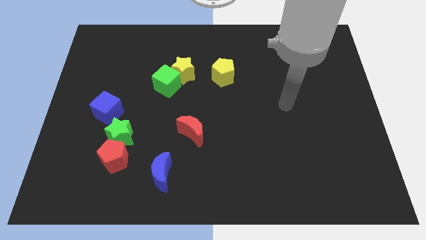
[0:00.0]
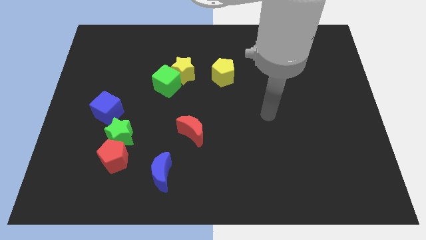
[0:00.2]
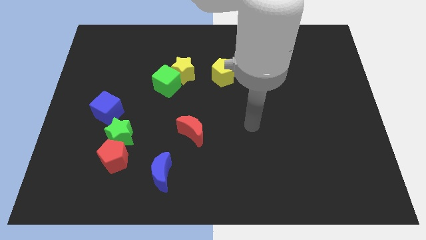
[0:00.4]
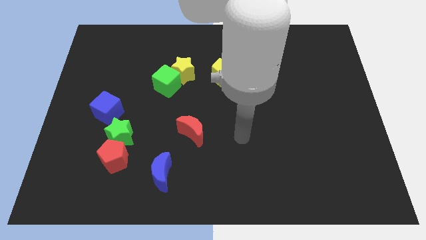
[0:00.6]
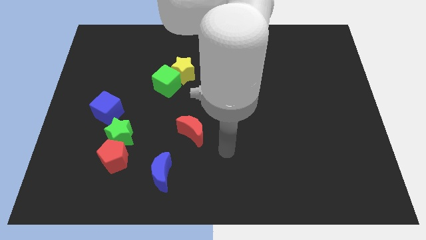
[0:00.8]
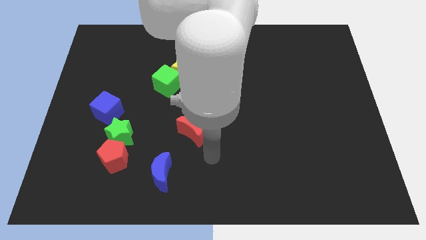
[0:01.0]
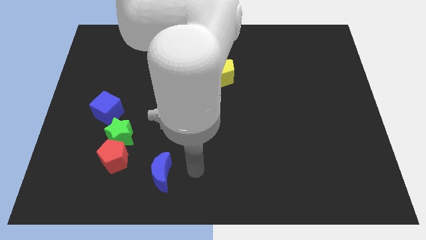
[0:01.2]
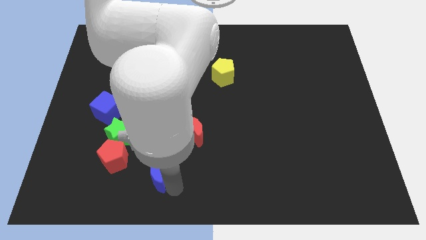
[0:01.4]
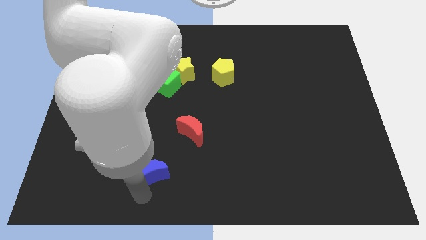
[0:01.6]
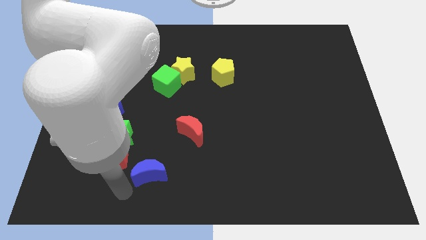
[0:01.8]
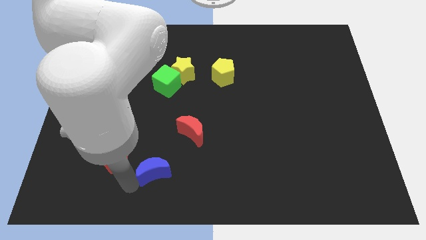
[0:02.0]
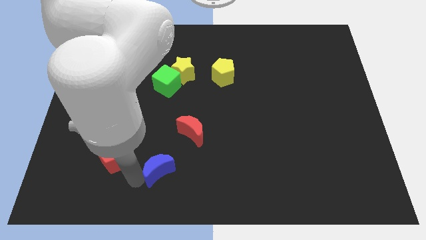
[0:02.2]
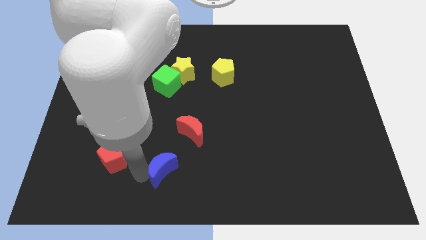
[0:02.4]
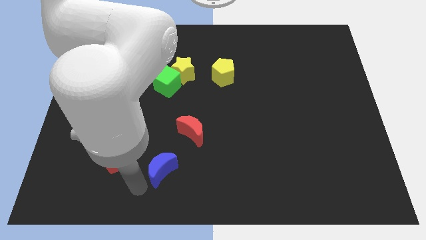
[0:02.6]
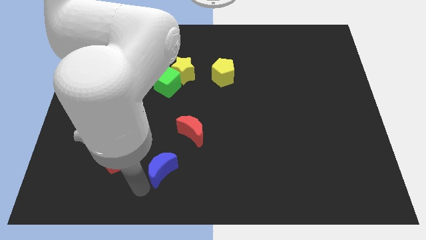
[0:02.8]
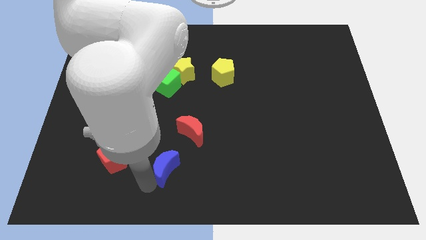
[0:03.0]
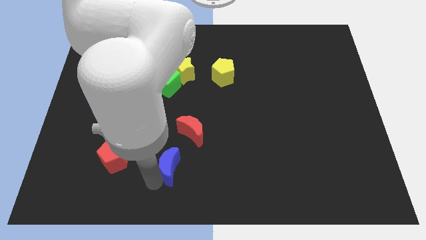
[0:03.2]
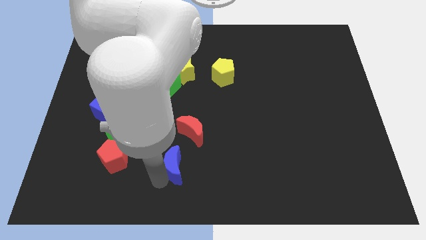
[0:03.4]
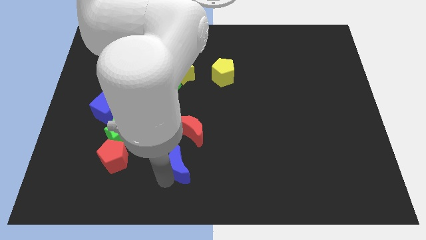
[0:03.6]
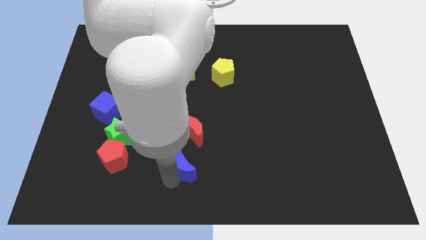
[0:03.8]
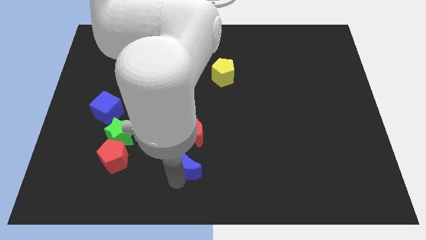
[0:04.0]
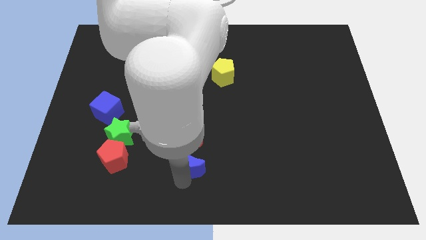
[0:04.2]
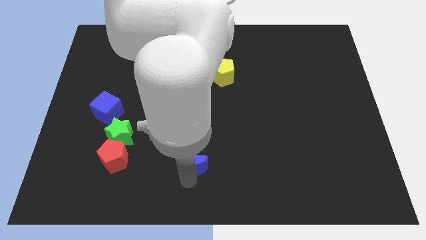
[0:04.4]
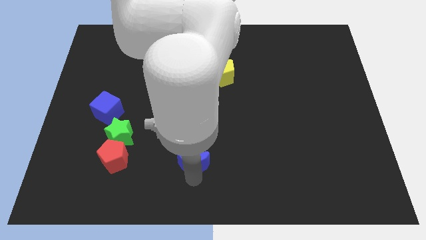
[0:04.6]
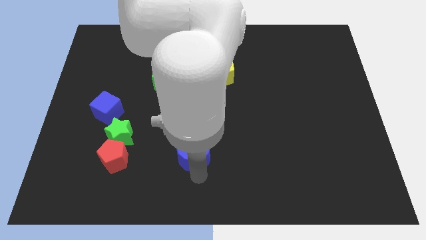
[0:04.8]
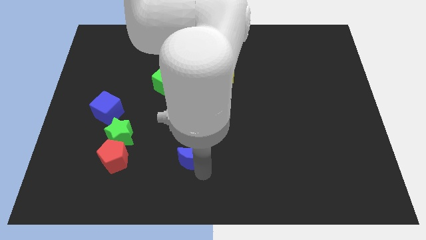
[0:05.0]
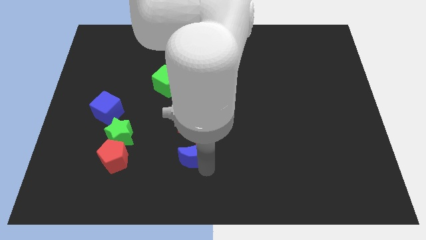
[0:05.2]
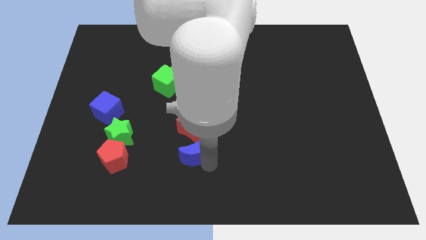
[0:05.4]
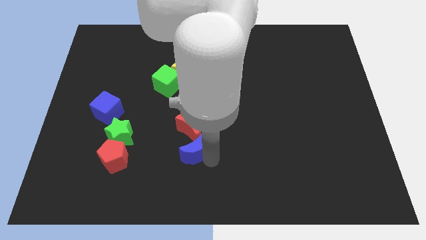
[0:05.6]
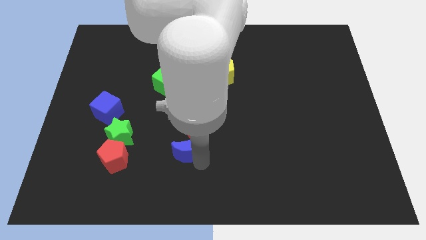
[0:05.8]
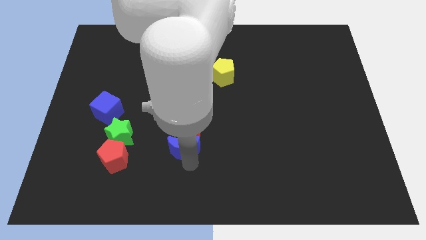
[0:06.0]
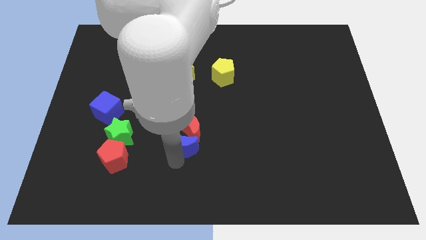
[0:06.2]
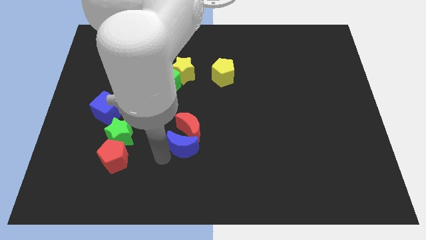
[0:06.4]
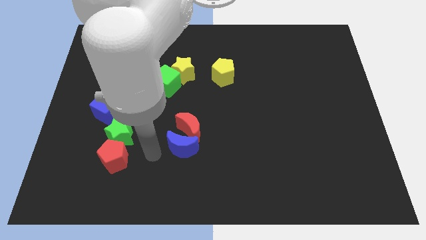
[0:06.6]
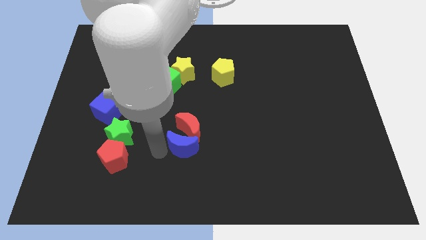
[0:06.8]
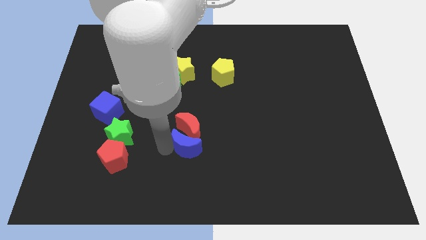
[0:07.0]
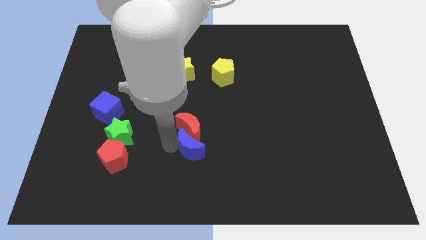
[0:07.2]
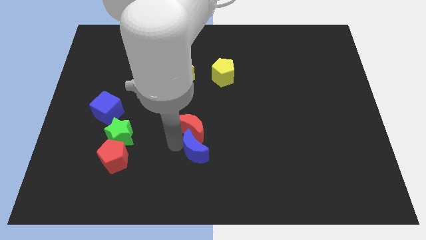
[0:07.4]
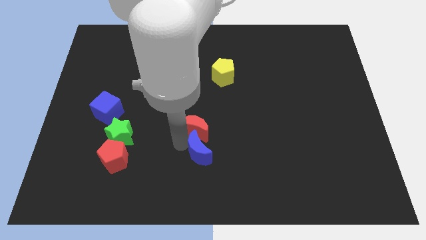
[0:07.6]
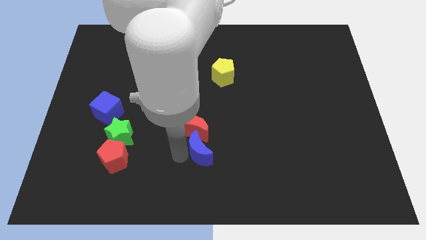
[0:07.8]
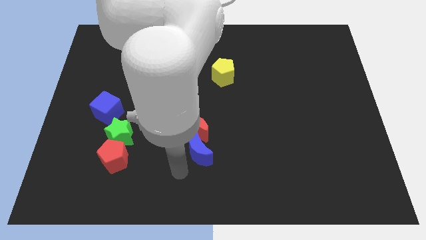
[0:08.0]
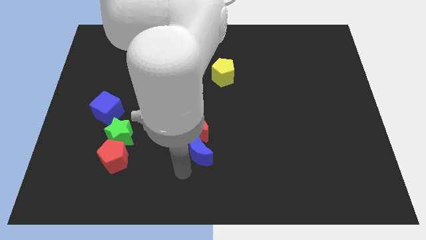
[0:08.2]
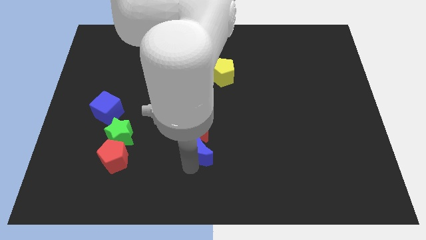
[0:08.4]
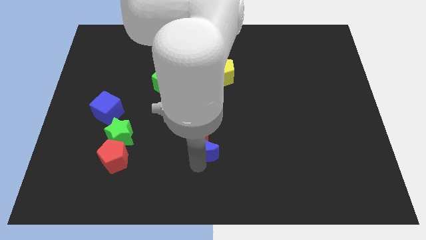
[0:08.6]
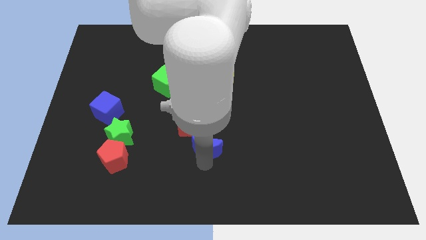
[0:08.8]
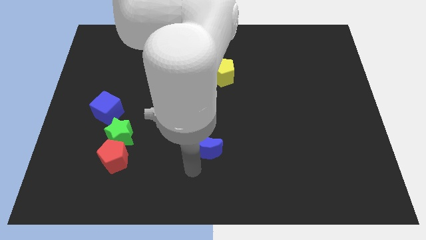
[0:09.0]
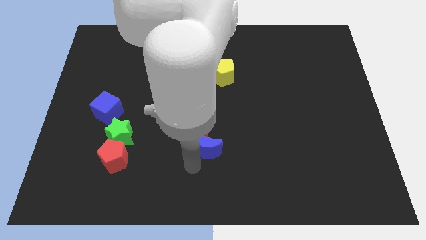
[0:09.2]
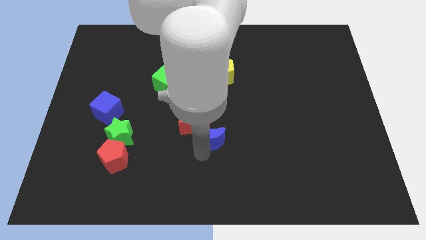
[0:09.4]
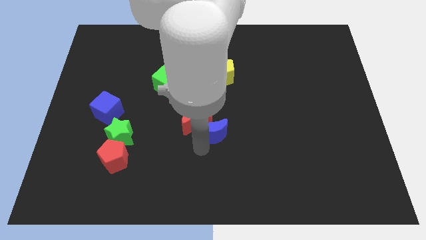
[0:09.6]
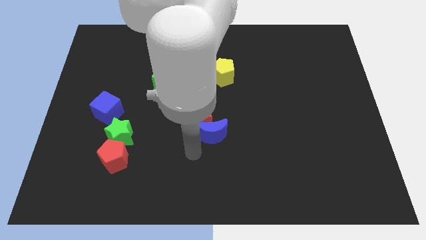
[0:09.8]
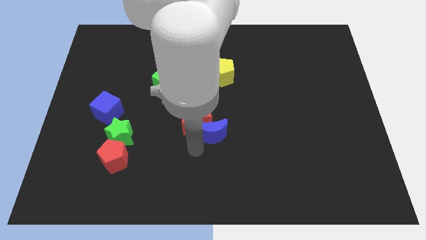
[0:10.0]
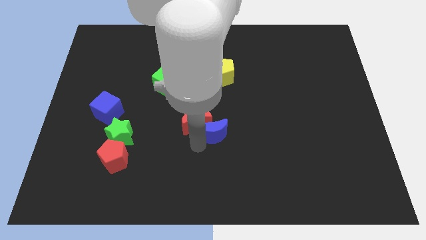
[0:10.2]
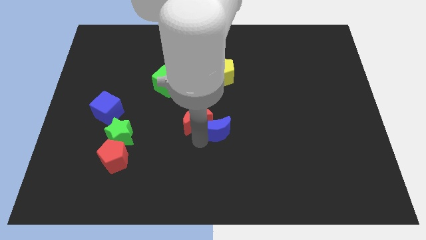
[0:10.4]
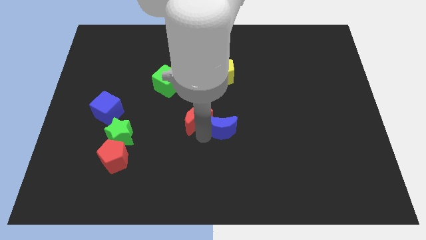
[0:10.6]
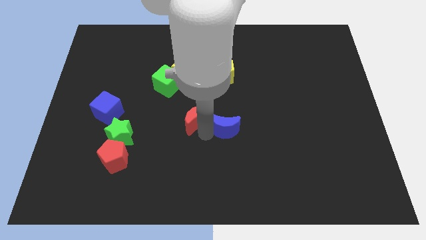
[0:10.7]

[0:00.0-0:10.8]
slide the blue moon below the yellow pentagon

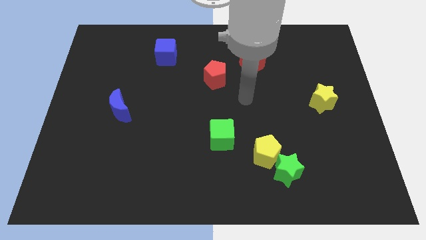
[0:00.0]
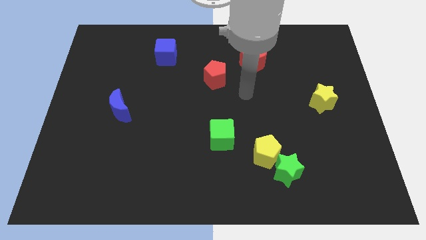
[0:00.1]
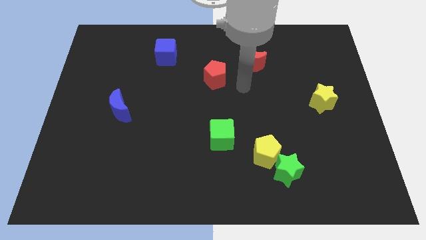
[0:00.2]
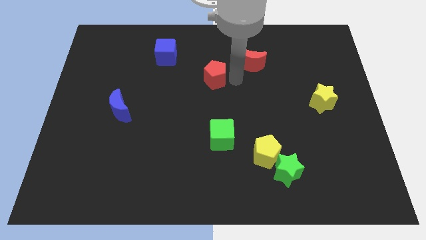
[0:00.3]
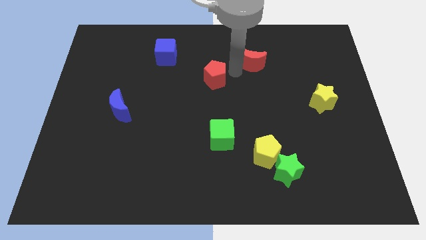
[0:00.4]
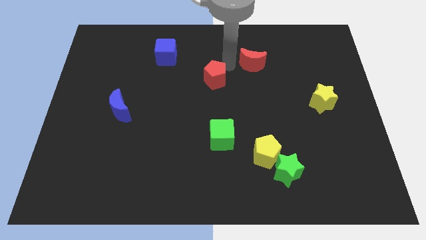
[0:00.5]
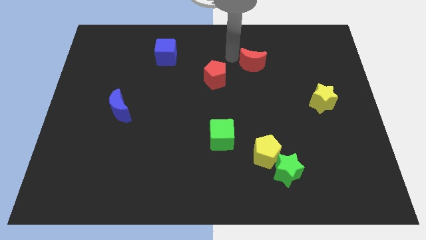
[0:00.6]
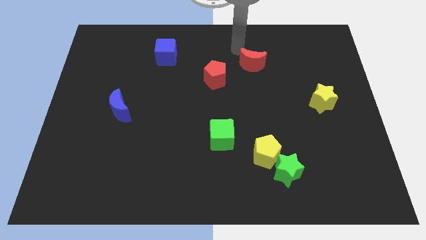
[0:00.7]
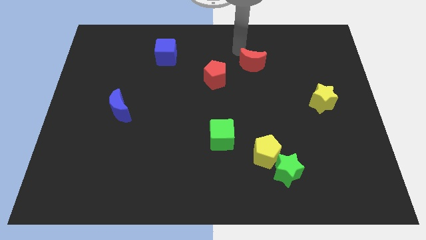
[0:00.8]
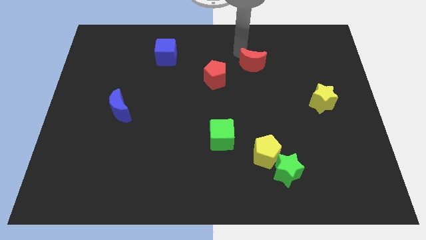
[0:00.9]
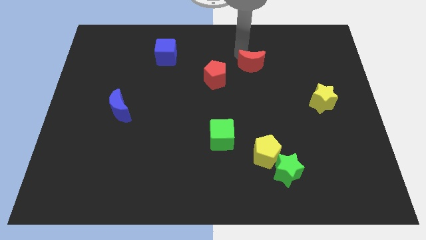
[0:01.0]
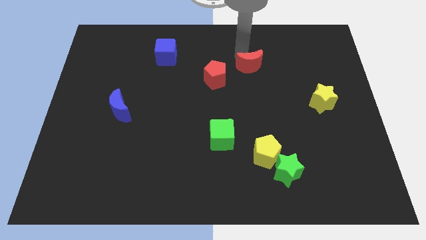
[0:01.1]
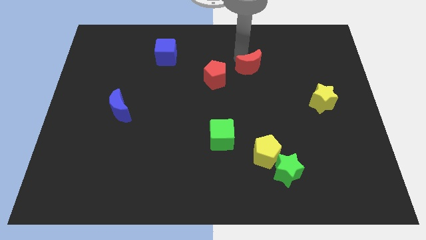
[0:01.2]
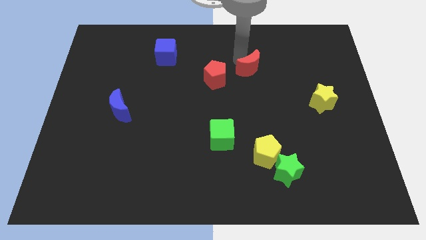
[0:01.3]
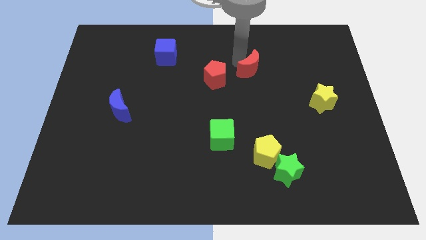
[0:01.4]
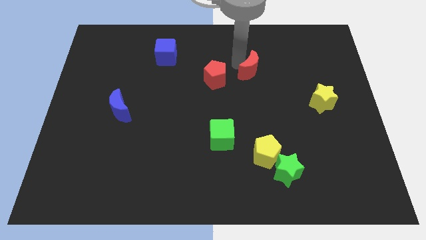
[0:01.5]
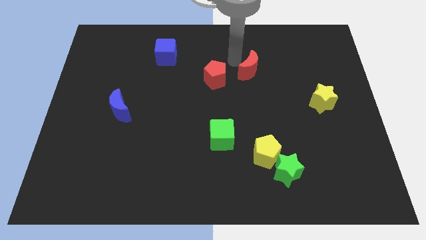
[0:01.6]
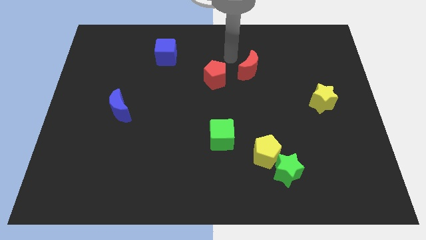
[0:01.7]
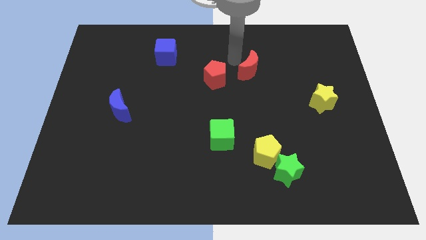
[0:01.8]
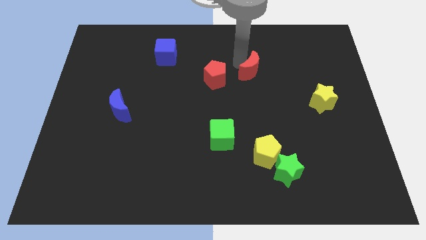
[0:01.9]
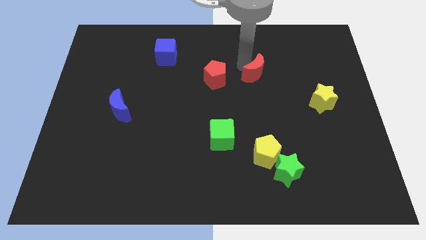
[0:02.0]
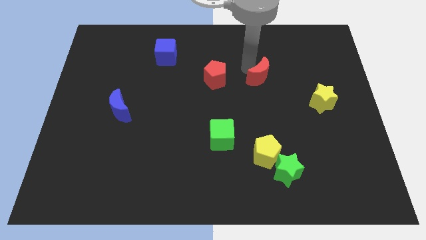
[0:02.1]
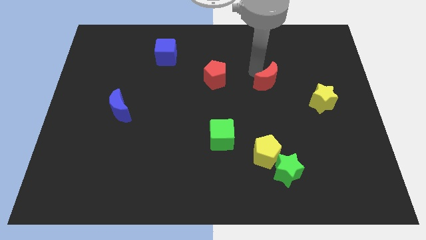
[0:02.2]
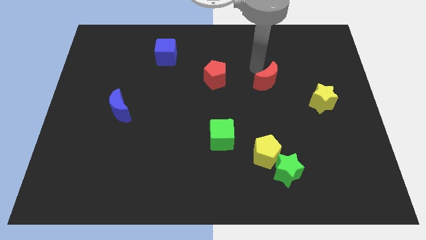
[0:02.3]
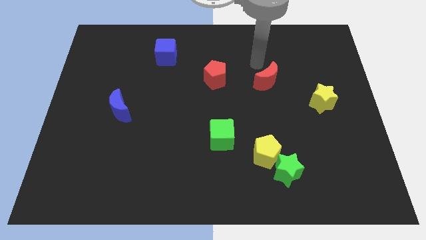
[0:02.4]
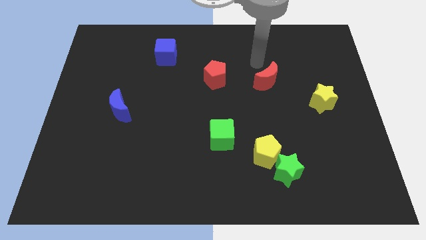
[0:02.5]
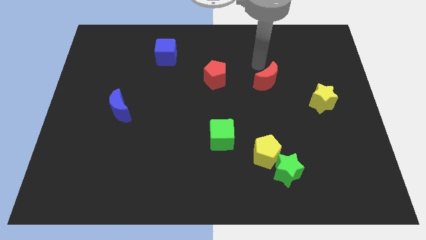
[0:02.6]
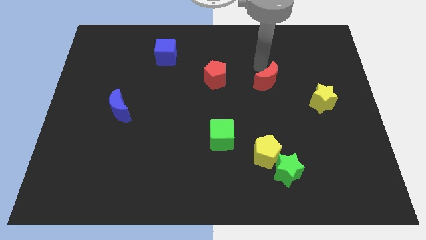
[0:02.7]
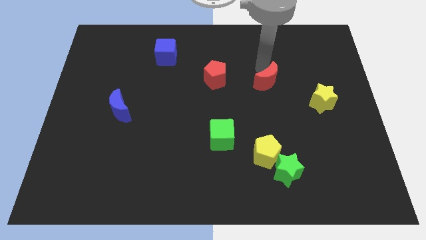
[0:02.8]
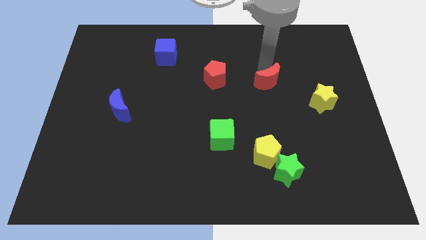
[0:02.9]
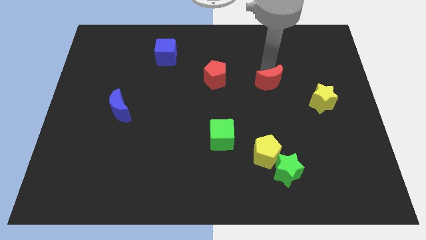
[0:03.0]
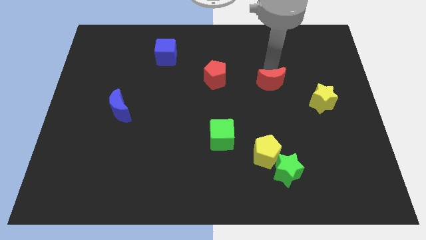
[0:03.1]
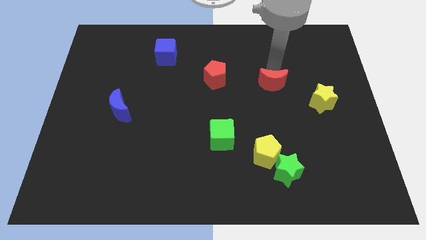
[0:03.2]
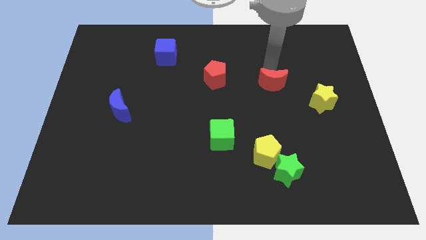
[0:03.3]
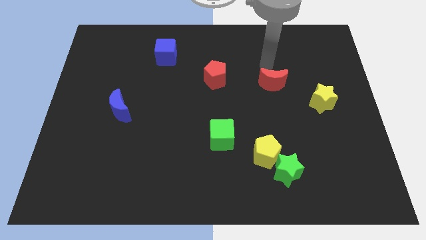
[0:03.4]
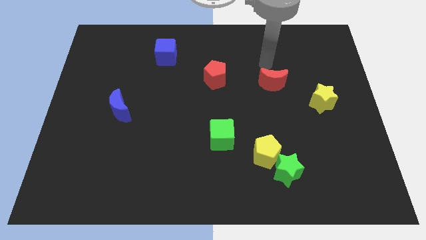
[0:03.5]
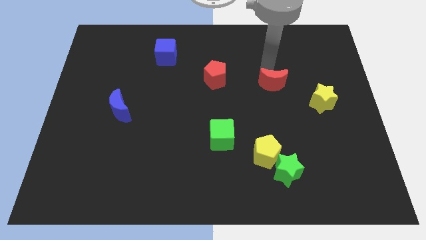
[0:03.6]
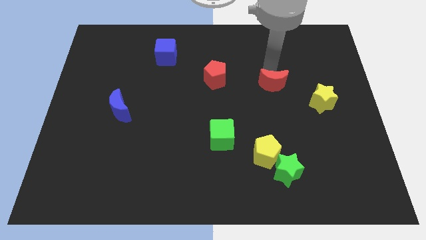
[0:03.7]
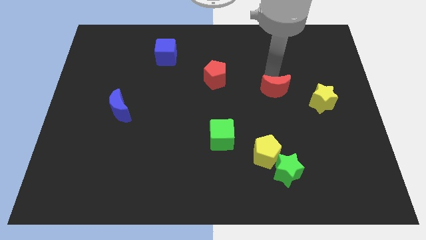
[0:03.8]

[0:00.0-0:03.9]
slide the red moon to the left of the yellow star
